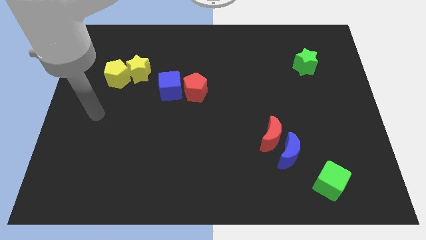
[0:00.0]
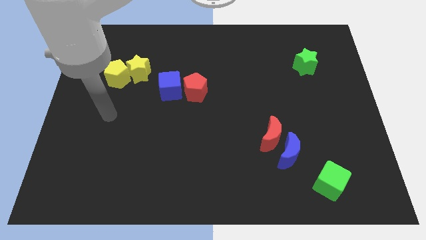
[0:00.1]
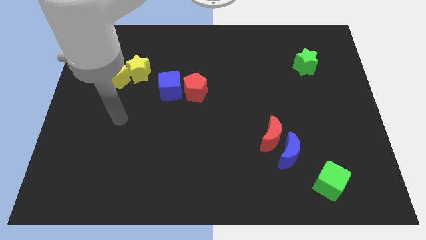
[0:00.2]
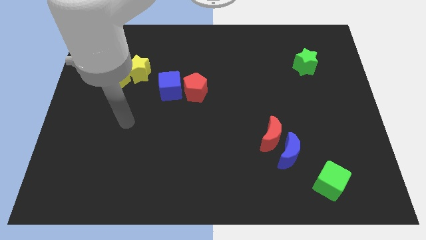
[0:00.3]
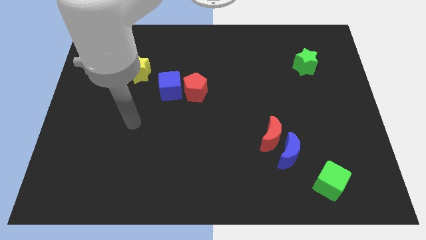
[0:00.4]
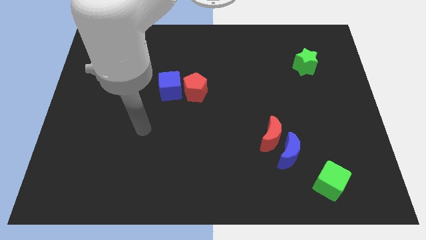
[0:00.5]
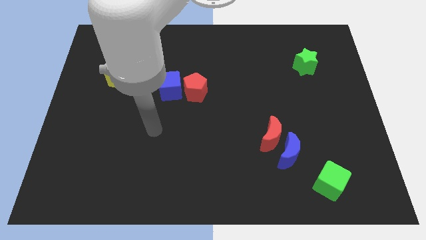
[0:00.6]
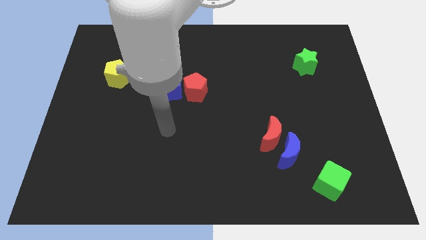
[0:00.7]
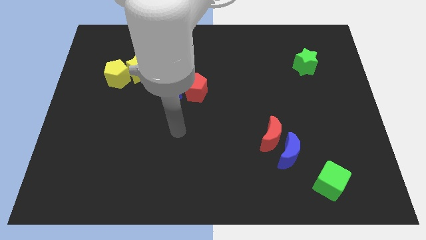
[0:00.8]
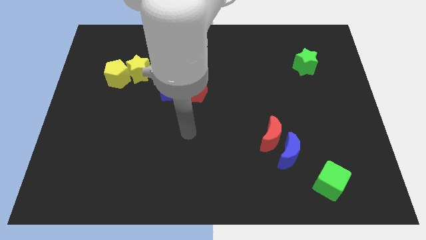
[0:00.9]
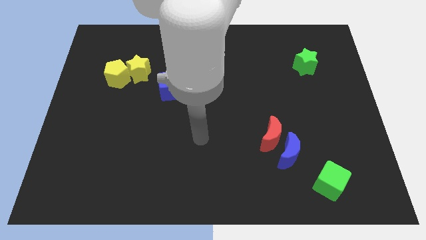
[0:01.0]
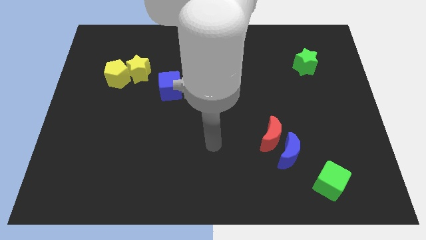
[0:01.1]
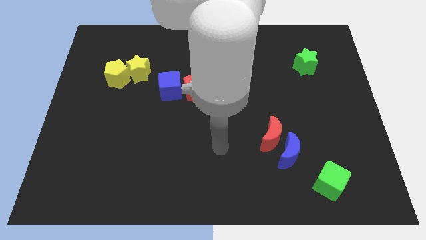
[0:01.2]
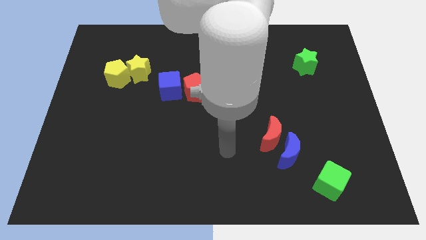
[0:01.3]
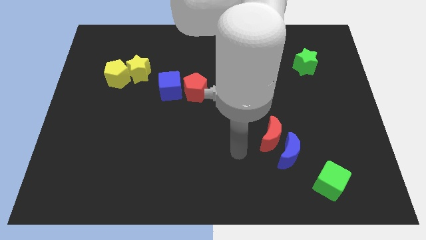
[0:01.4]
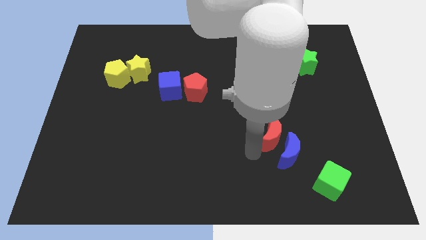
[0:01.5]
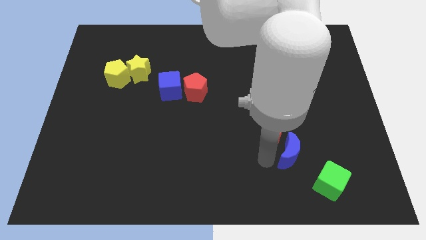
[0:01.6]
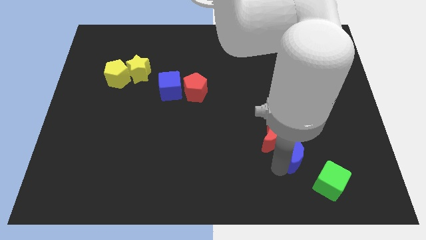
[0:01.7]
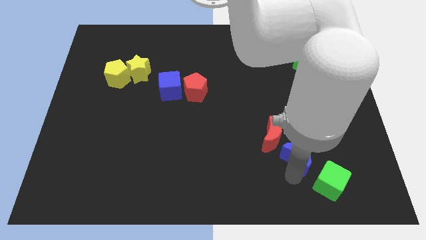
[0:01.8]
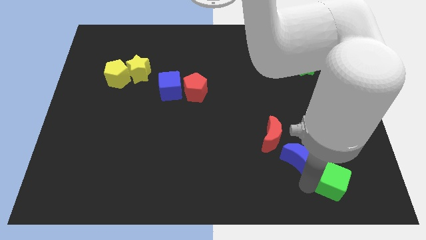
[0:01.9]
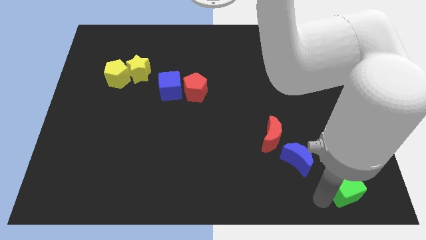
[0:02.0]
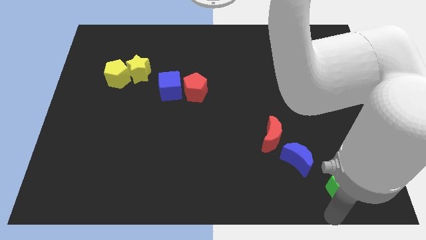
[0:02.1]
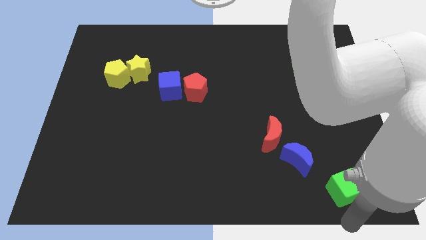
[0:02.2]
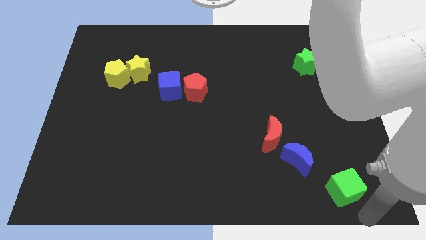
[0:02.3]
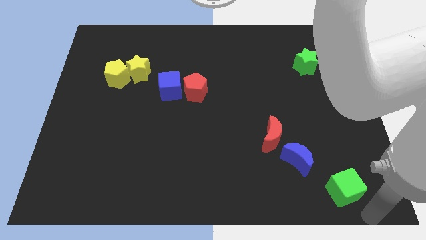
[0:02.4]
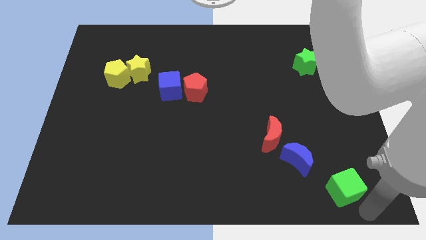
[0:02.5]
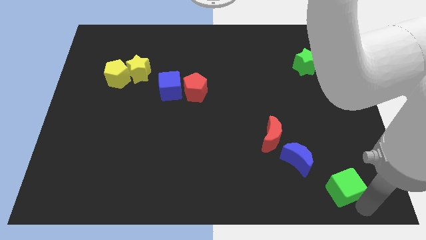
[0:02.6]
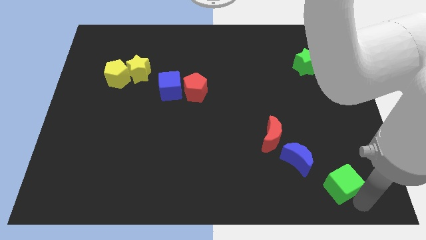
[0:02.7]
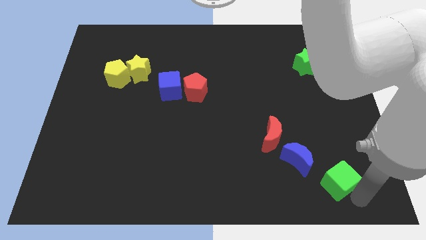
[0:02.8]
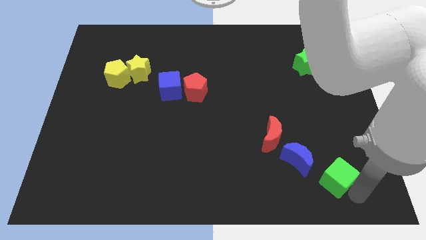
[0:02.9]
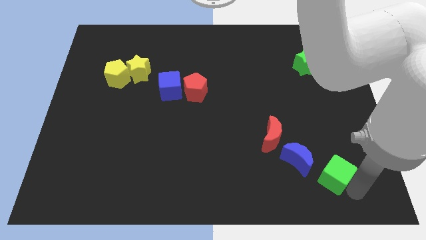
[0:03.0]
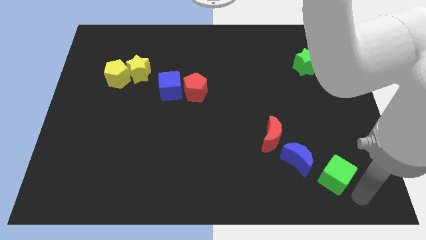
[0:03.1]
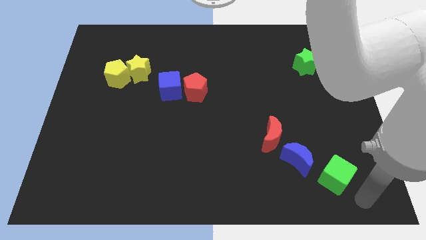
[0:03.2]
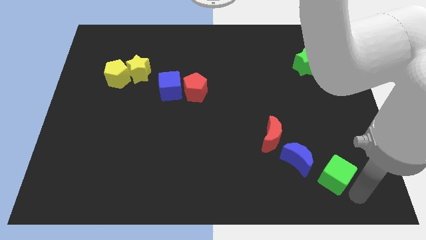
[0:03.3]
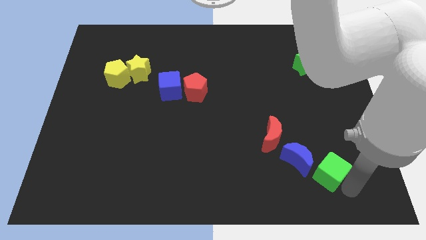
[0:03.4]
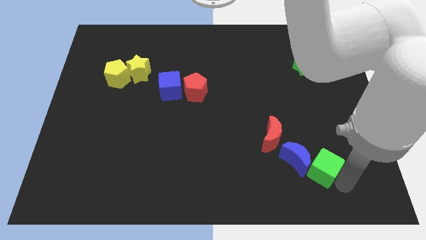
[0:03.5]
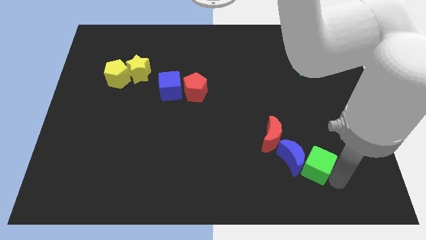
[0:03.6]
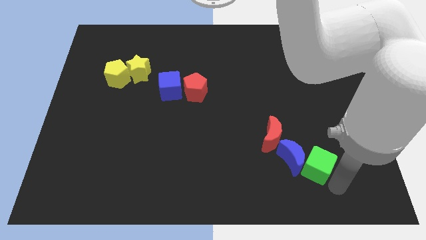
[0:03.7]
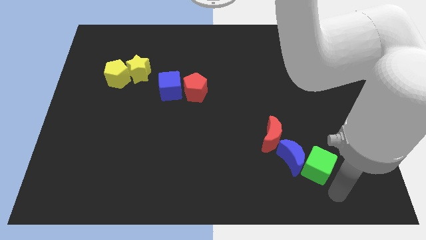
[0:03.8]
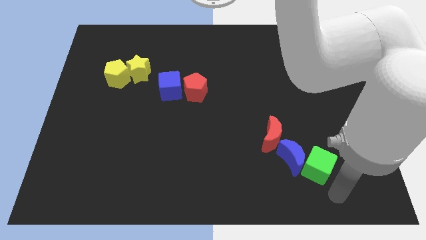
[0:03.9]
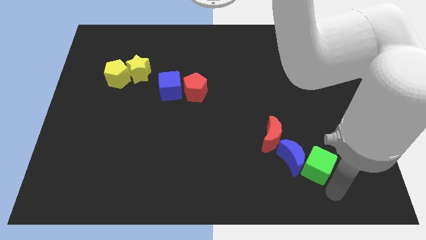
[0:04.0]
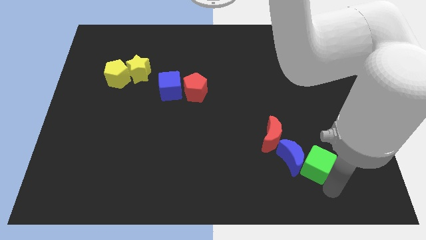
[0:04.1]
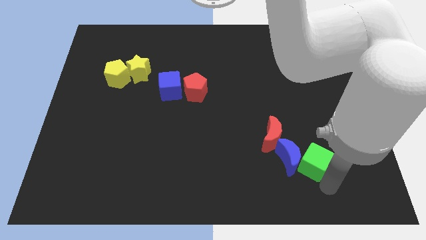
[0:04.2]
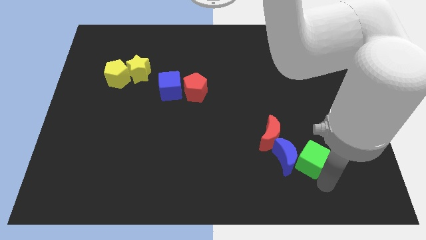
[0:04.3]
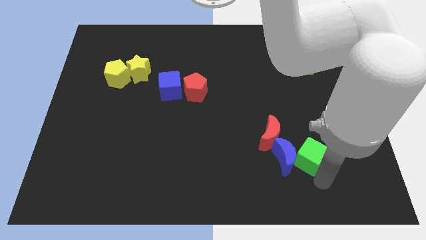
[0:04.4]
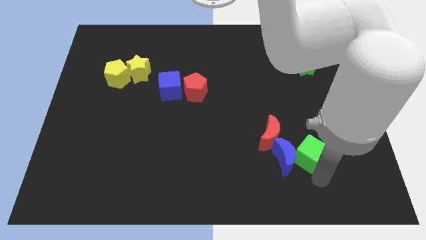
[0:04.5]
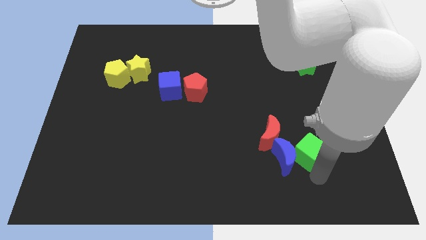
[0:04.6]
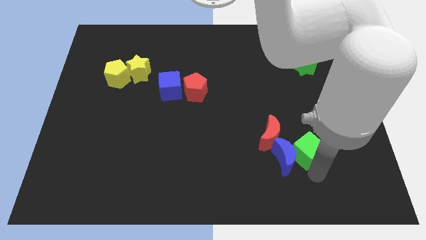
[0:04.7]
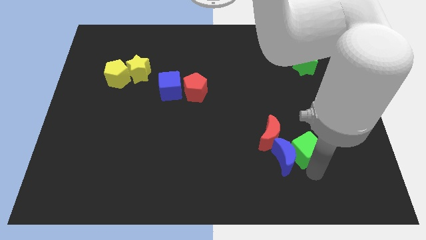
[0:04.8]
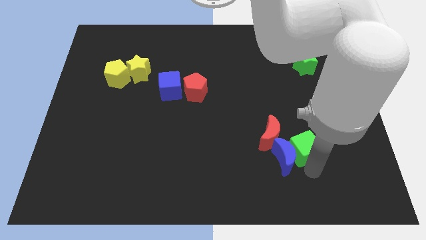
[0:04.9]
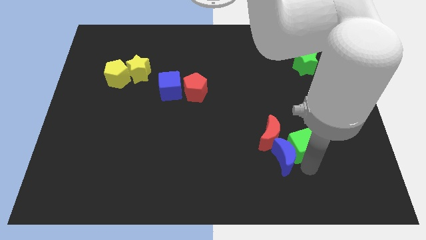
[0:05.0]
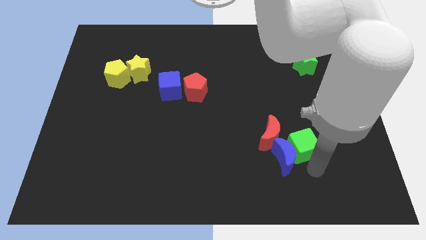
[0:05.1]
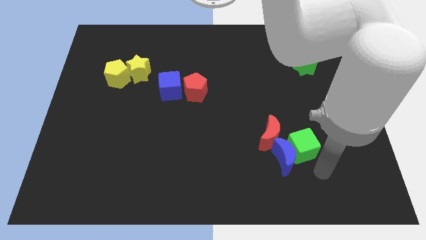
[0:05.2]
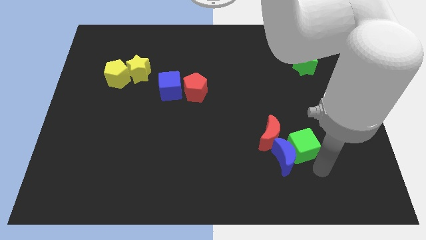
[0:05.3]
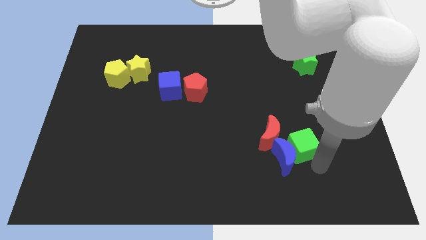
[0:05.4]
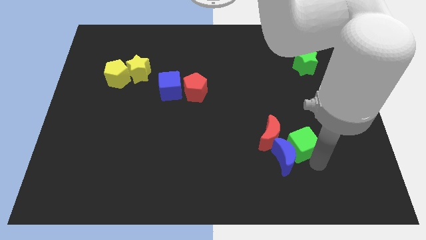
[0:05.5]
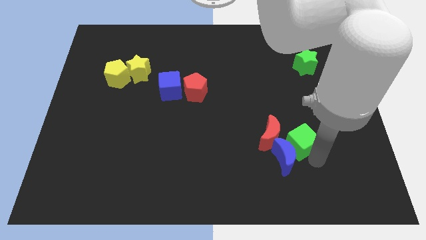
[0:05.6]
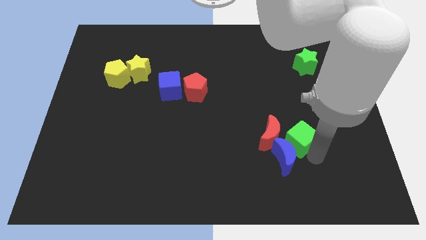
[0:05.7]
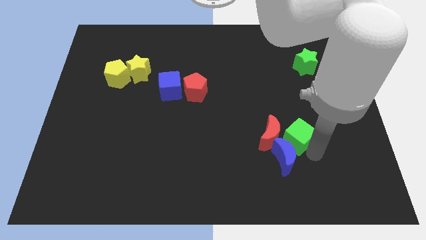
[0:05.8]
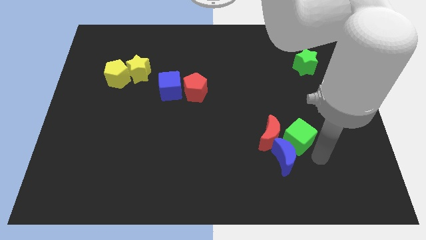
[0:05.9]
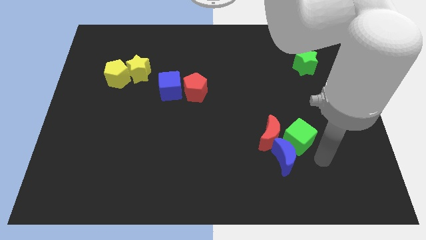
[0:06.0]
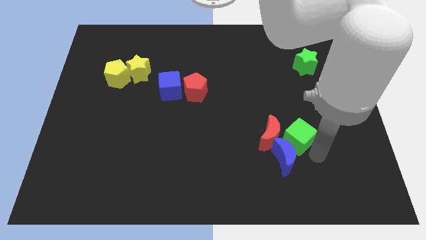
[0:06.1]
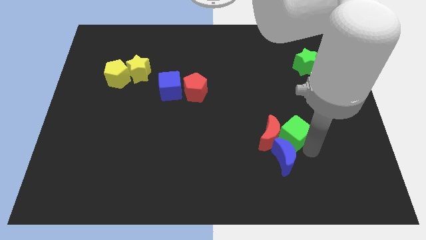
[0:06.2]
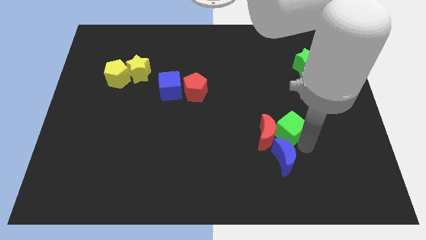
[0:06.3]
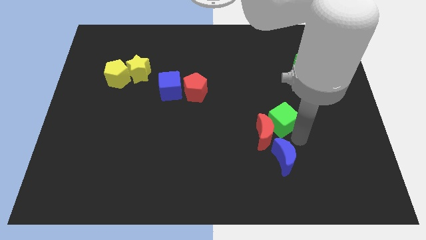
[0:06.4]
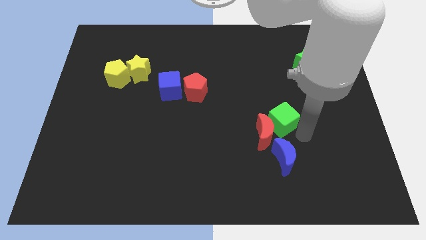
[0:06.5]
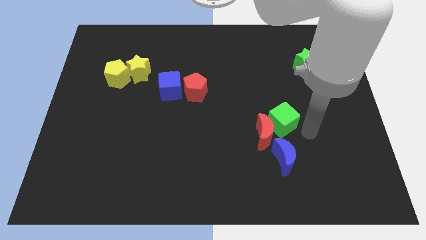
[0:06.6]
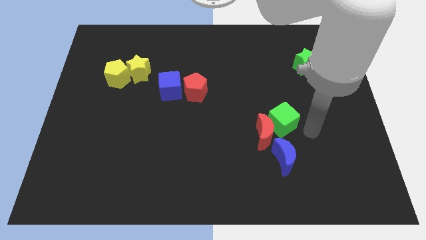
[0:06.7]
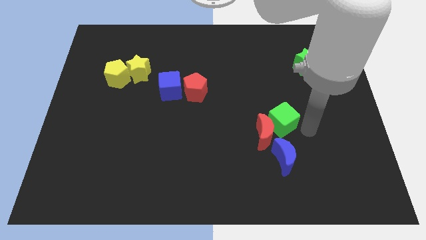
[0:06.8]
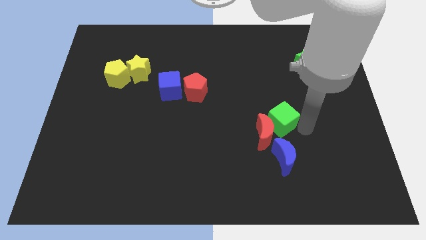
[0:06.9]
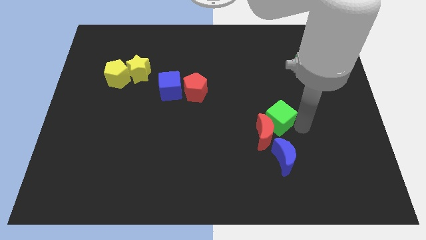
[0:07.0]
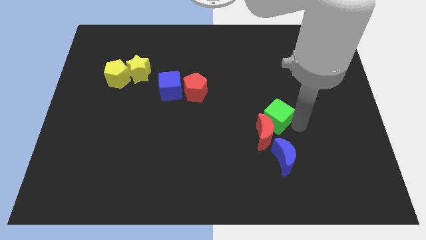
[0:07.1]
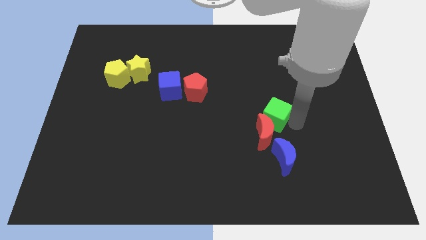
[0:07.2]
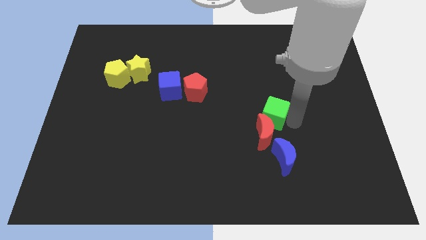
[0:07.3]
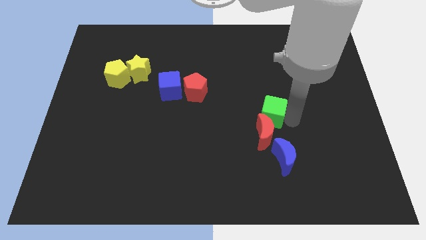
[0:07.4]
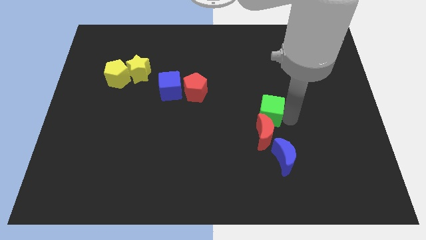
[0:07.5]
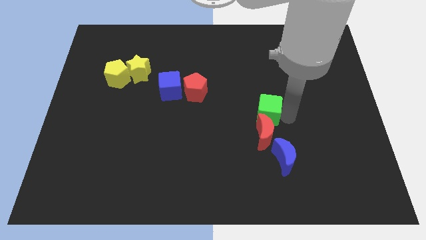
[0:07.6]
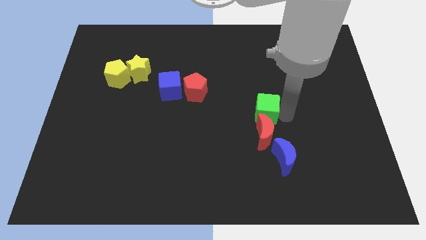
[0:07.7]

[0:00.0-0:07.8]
slide the green cube up and left diagonally

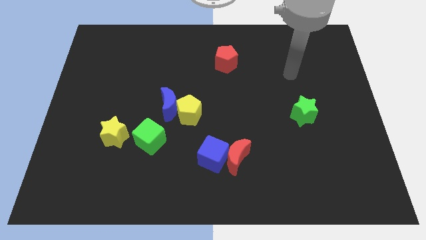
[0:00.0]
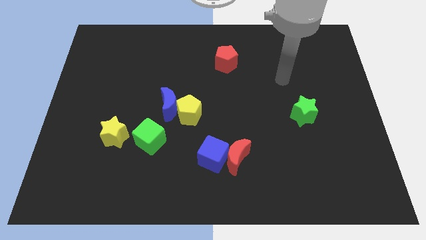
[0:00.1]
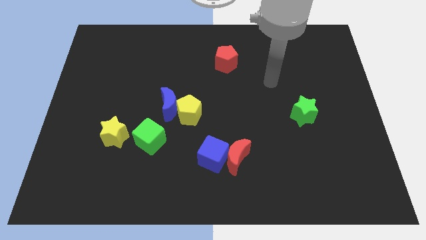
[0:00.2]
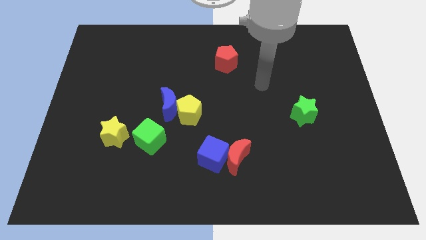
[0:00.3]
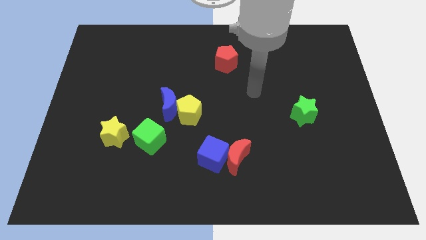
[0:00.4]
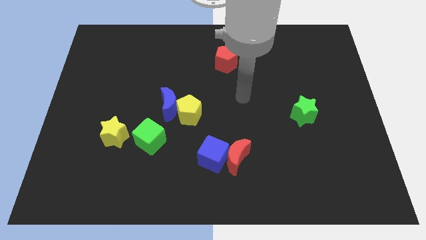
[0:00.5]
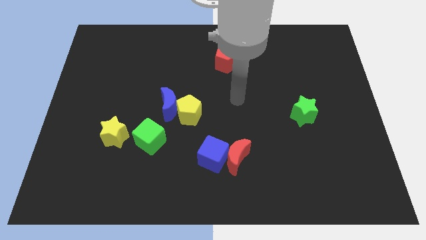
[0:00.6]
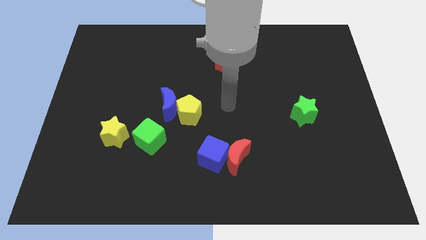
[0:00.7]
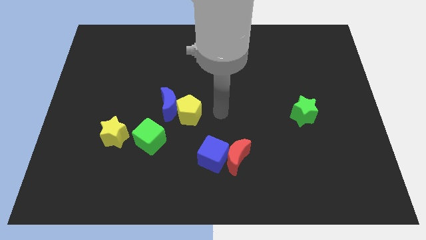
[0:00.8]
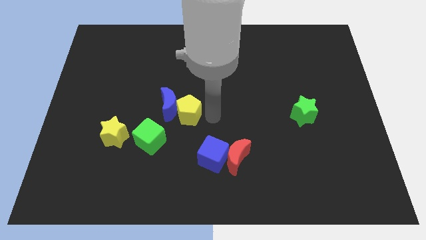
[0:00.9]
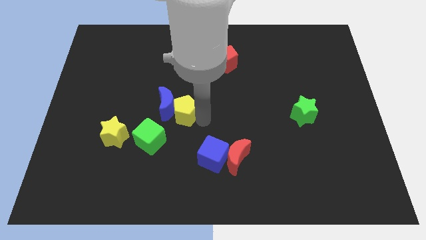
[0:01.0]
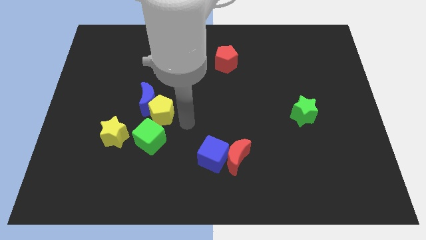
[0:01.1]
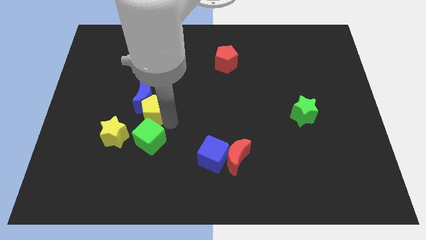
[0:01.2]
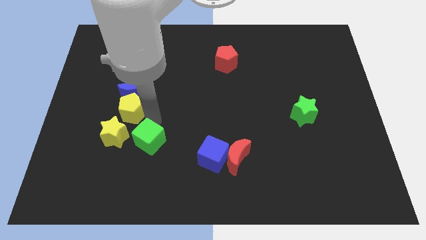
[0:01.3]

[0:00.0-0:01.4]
slightly slide the blue moon diagonally up and to the left
